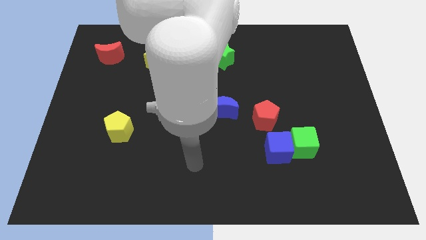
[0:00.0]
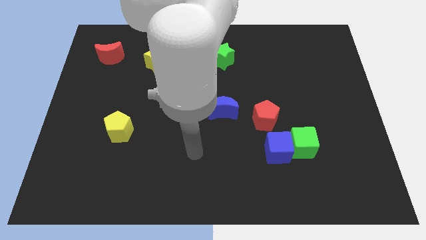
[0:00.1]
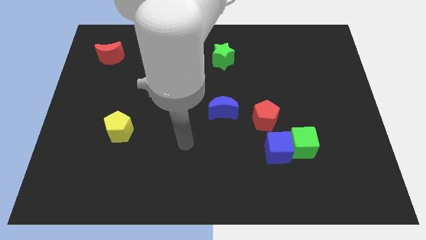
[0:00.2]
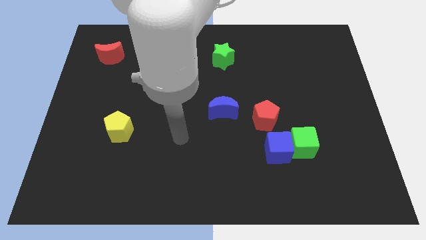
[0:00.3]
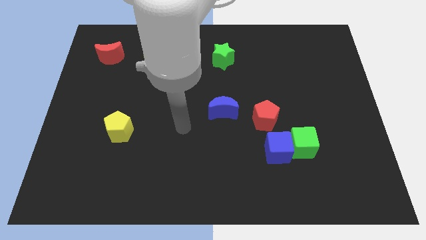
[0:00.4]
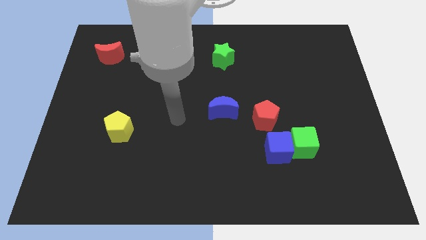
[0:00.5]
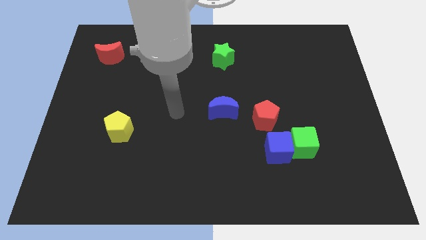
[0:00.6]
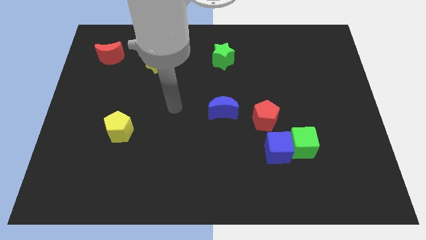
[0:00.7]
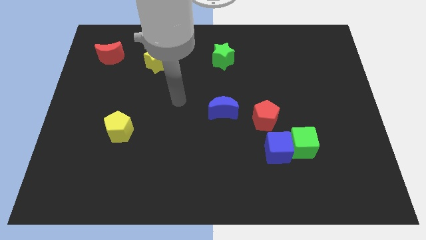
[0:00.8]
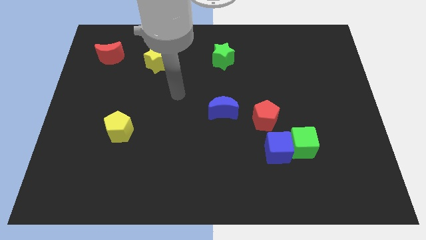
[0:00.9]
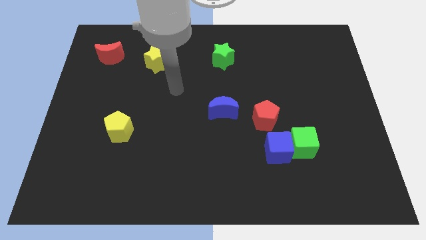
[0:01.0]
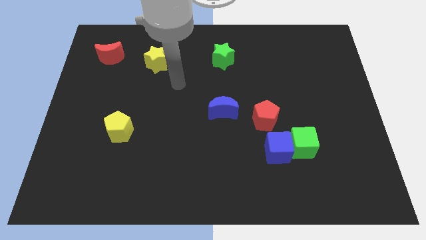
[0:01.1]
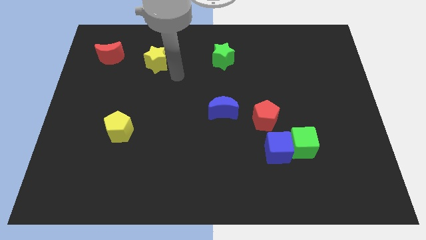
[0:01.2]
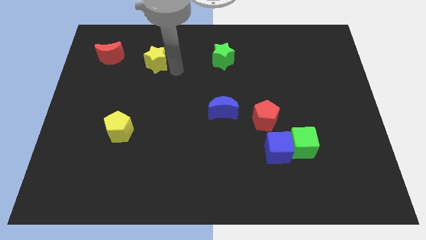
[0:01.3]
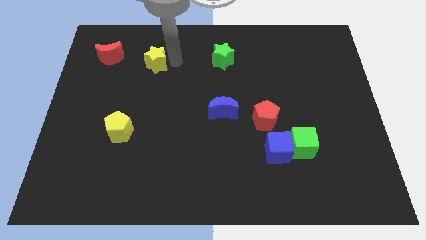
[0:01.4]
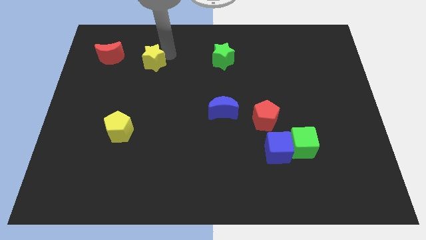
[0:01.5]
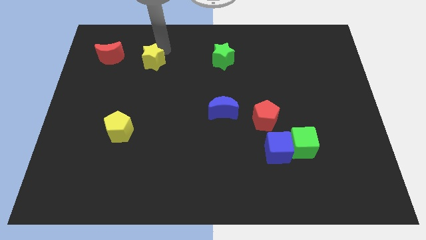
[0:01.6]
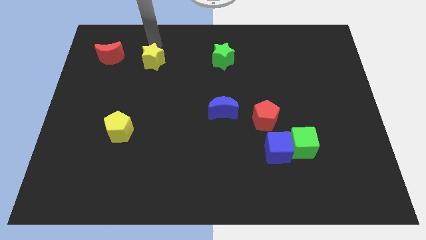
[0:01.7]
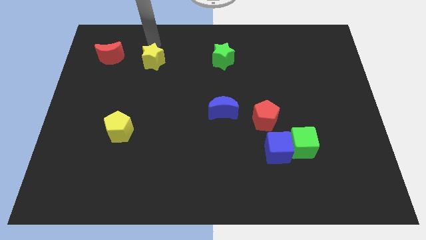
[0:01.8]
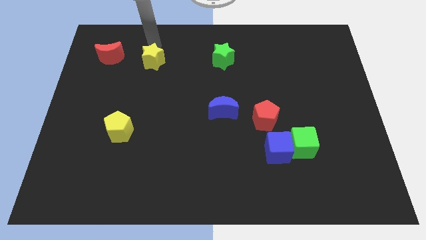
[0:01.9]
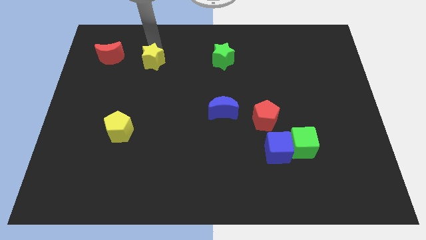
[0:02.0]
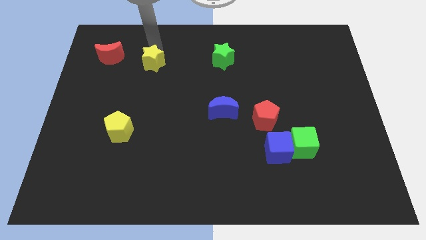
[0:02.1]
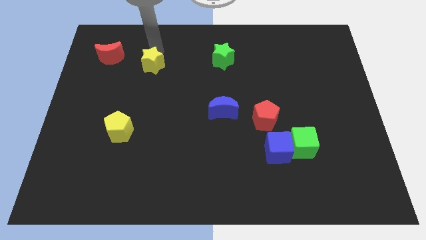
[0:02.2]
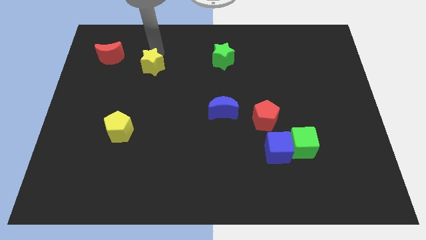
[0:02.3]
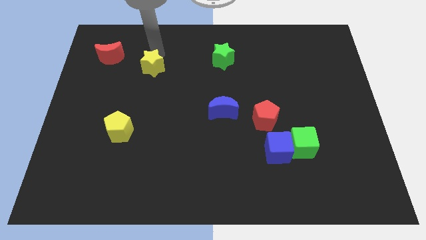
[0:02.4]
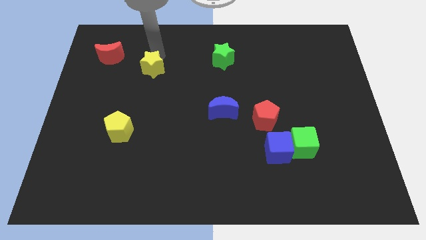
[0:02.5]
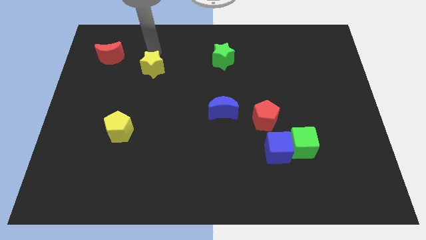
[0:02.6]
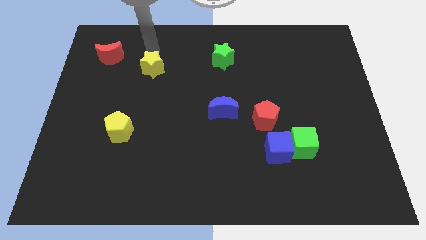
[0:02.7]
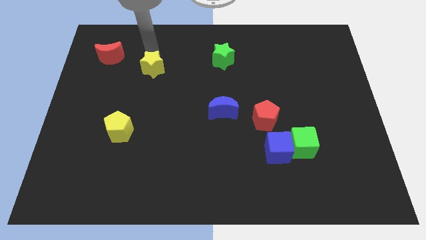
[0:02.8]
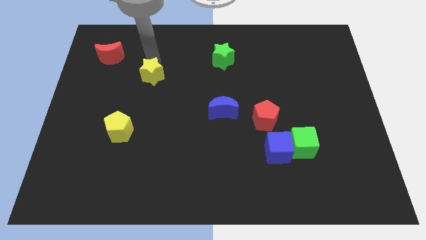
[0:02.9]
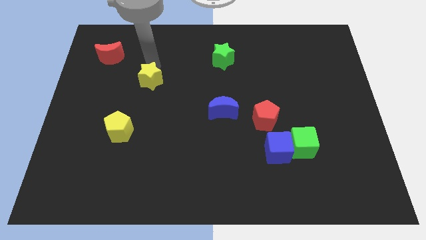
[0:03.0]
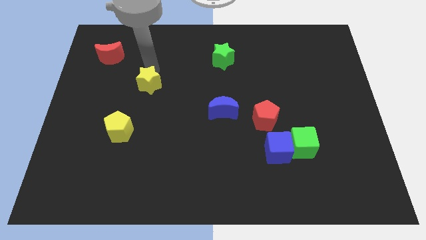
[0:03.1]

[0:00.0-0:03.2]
move the yellow star a bit down

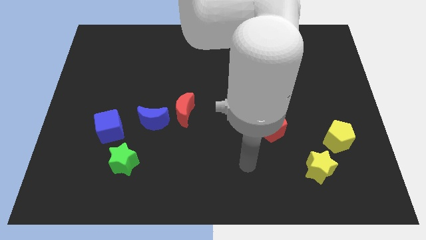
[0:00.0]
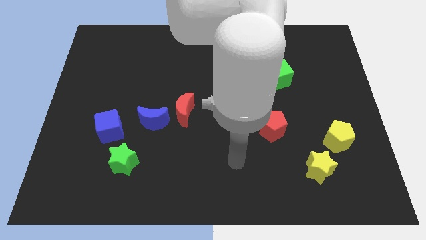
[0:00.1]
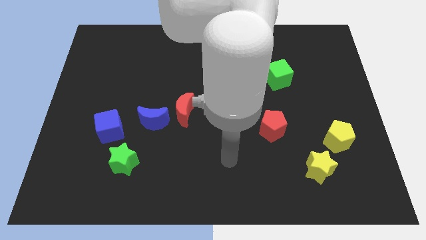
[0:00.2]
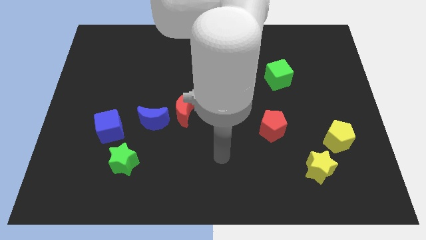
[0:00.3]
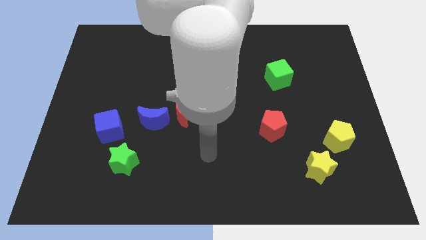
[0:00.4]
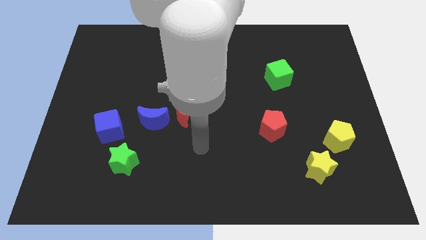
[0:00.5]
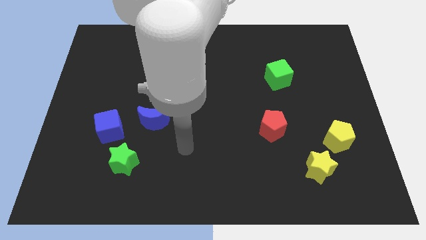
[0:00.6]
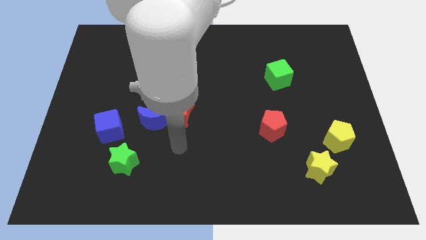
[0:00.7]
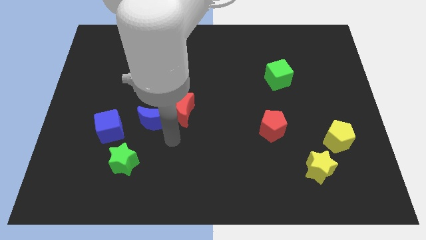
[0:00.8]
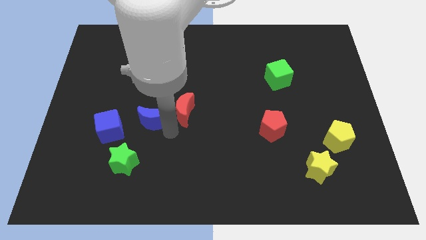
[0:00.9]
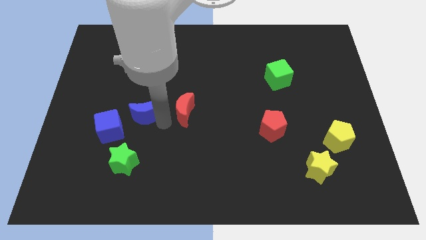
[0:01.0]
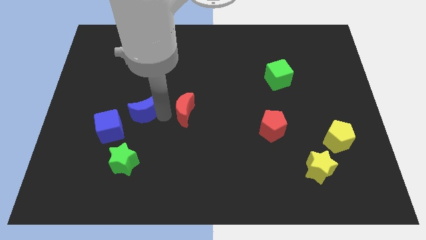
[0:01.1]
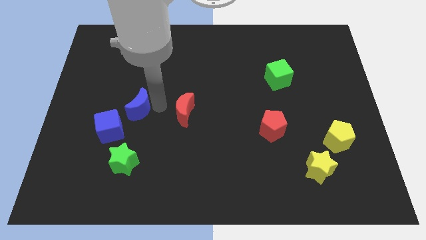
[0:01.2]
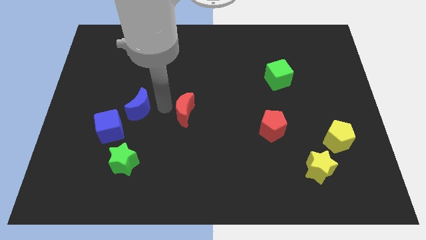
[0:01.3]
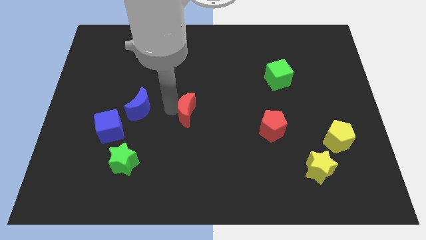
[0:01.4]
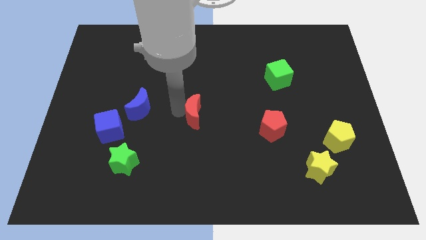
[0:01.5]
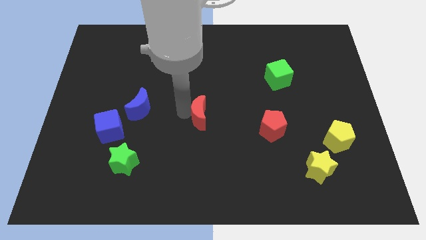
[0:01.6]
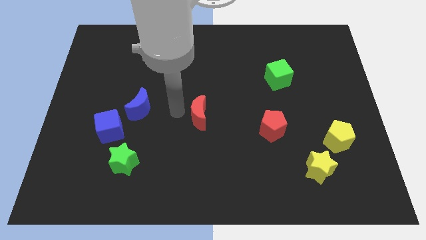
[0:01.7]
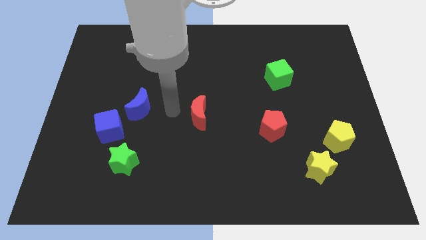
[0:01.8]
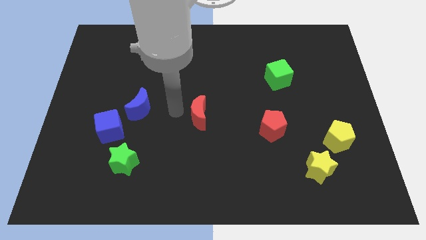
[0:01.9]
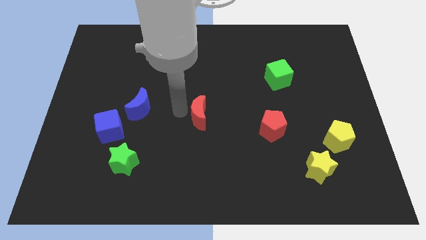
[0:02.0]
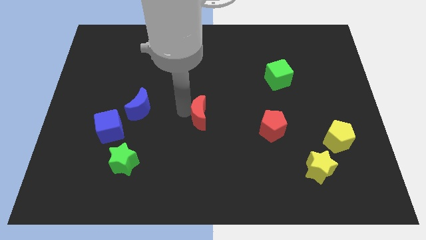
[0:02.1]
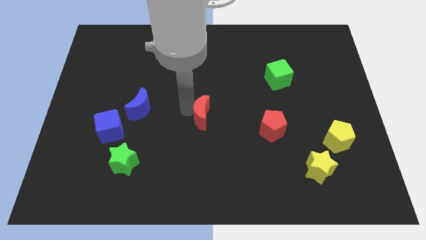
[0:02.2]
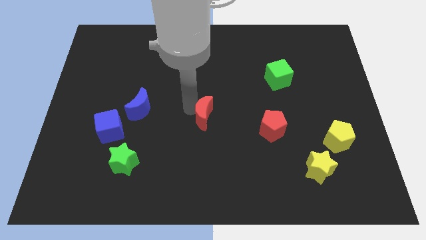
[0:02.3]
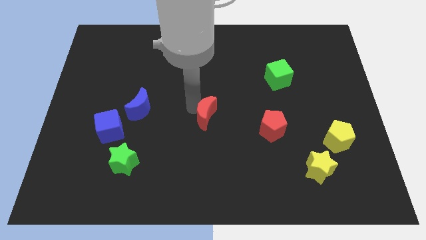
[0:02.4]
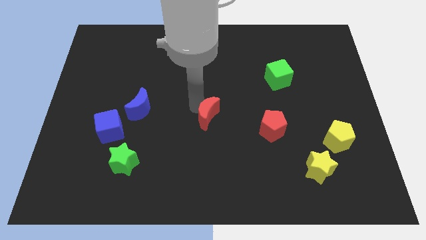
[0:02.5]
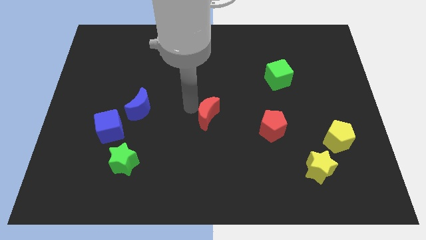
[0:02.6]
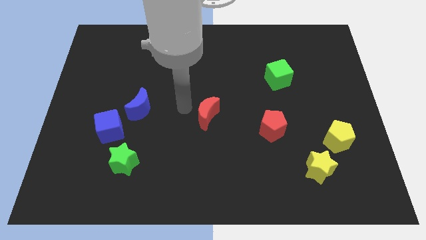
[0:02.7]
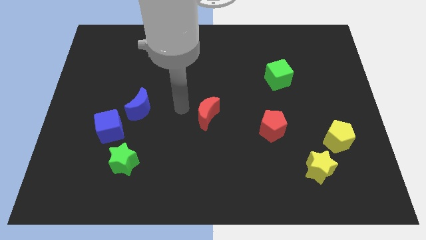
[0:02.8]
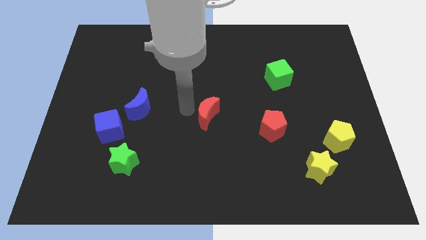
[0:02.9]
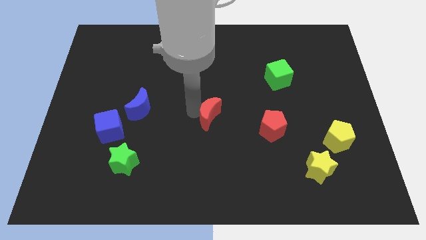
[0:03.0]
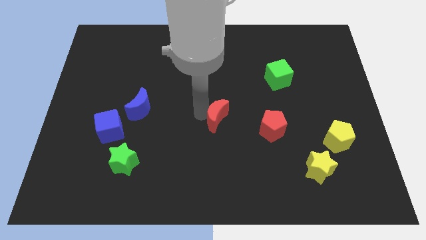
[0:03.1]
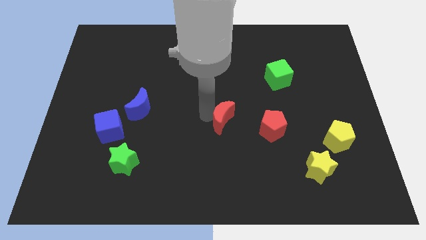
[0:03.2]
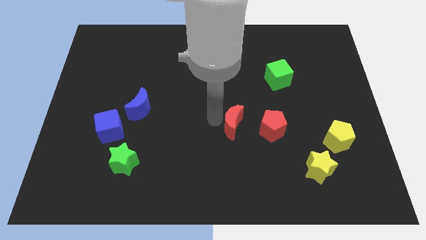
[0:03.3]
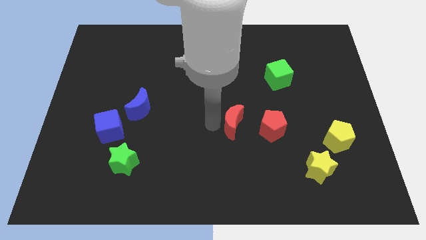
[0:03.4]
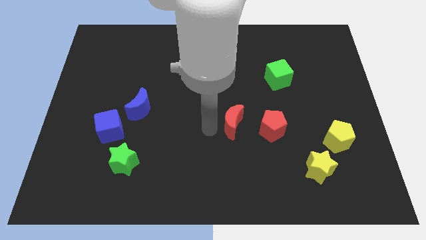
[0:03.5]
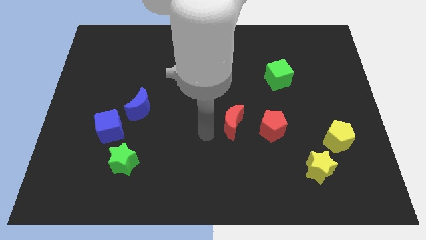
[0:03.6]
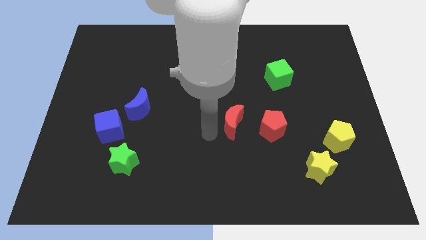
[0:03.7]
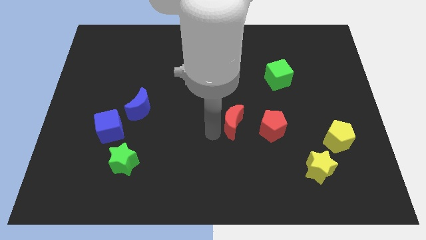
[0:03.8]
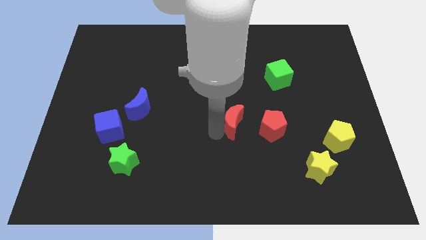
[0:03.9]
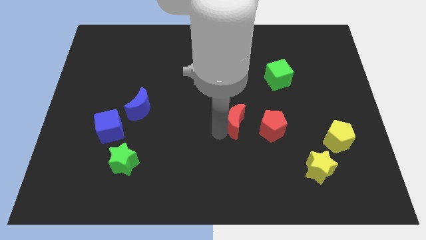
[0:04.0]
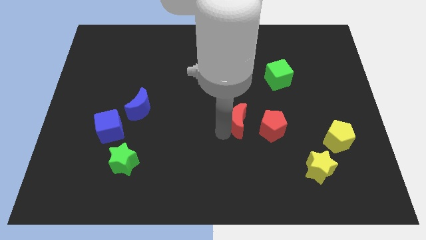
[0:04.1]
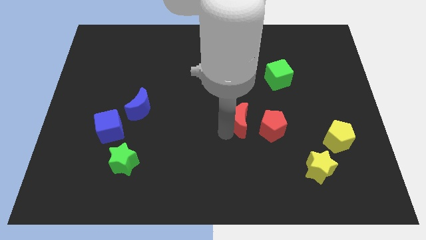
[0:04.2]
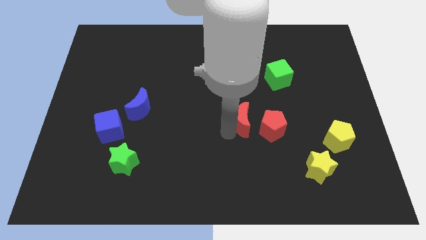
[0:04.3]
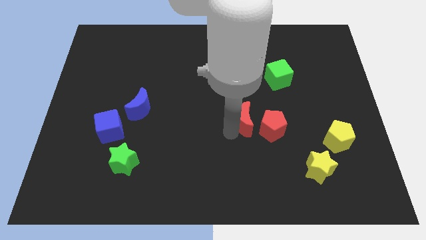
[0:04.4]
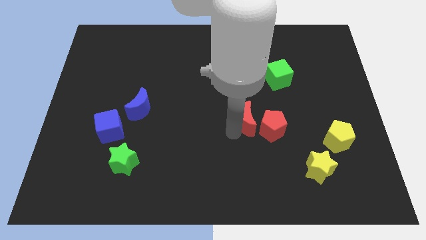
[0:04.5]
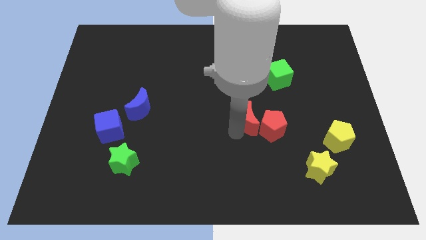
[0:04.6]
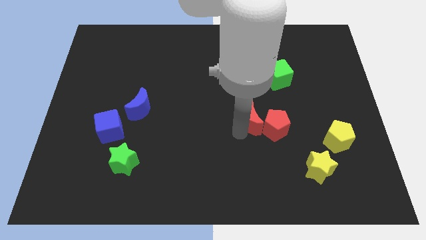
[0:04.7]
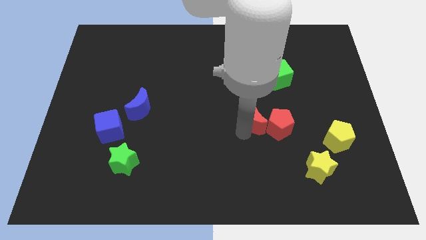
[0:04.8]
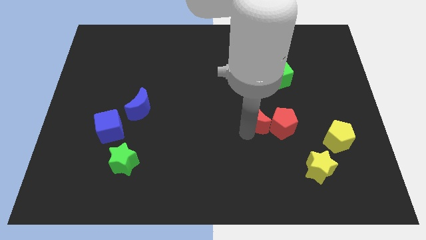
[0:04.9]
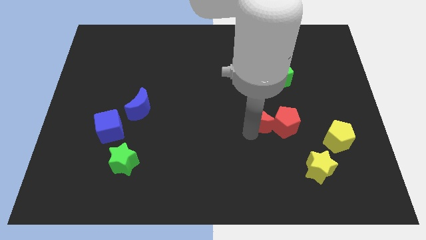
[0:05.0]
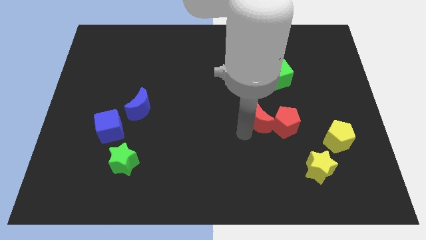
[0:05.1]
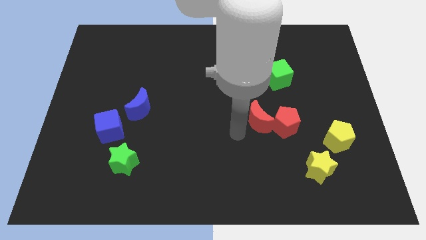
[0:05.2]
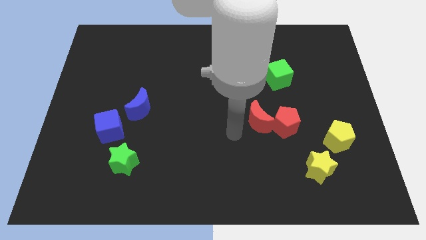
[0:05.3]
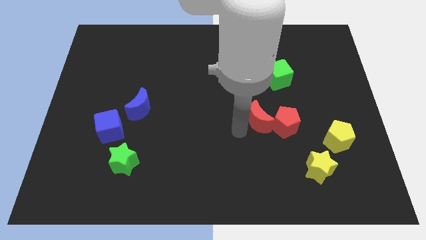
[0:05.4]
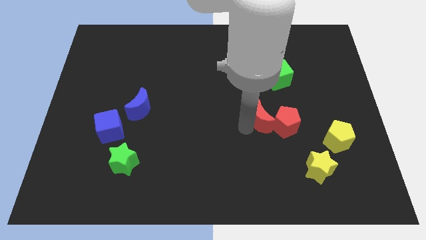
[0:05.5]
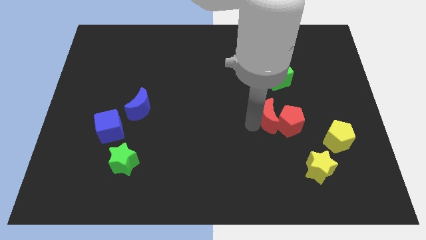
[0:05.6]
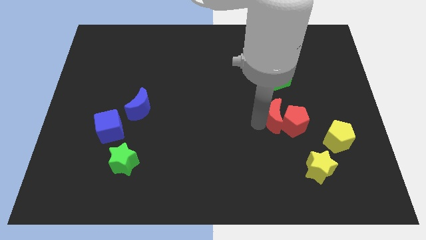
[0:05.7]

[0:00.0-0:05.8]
move the red moon right
